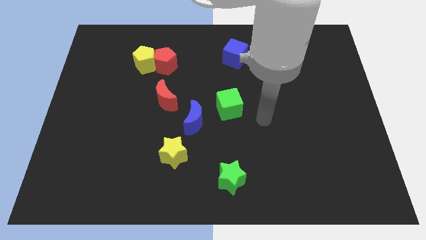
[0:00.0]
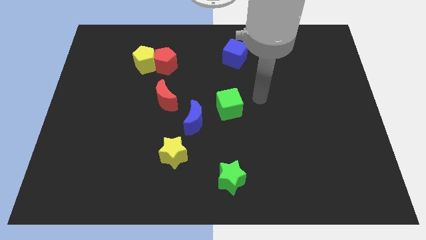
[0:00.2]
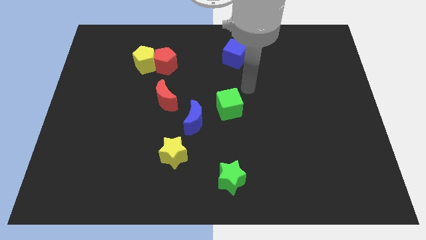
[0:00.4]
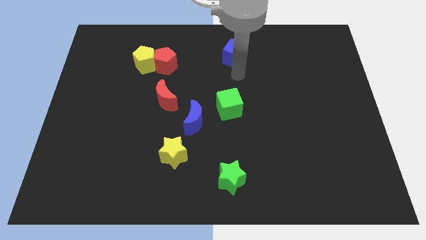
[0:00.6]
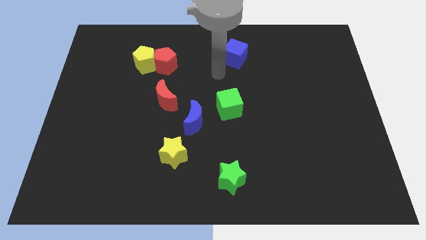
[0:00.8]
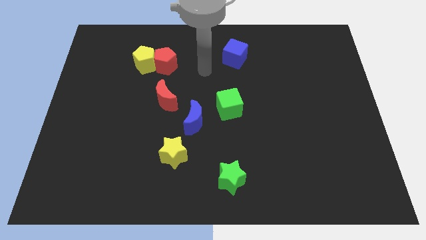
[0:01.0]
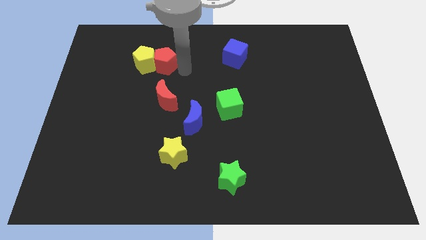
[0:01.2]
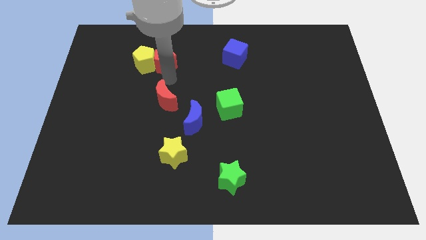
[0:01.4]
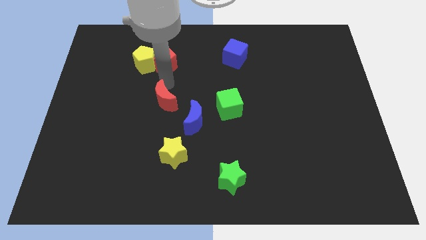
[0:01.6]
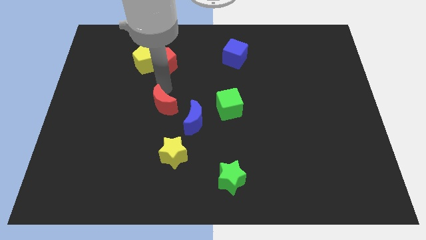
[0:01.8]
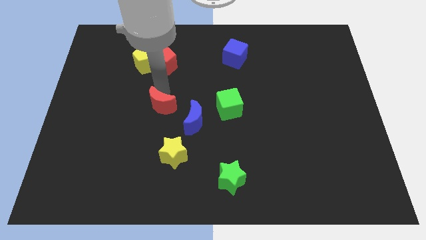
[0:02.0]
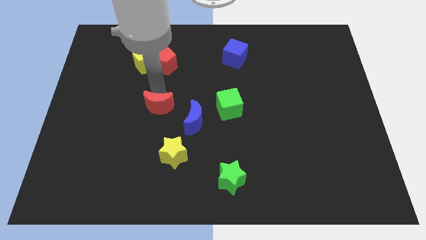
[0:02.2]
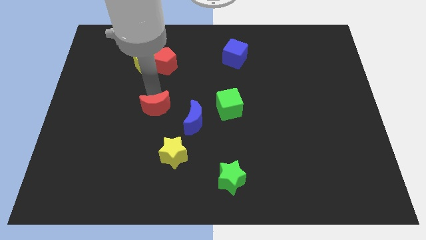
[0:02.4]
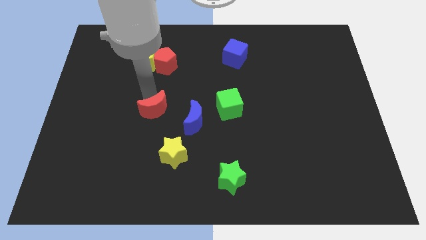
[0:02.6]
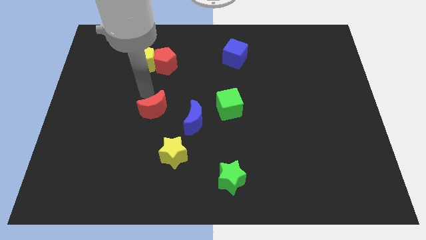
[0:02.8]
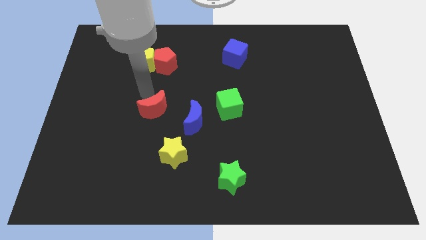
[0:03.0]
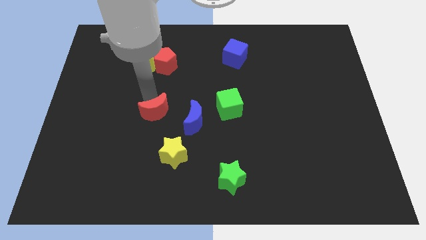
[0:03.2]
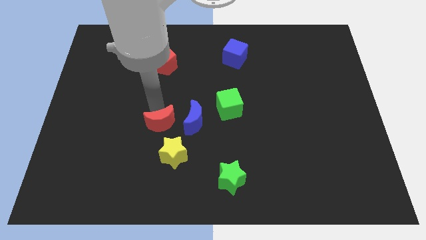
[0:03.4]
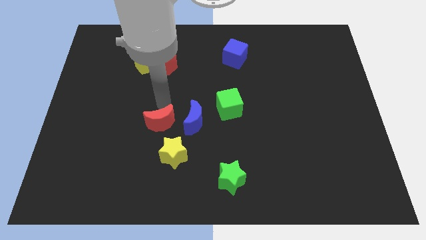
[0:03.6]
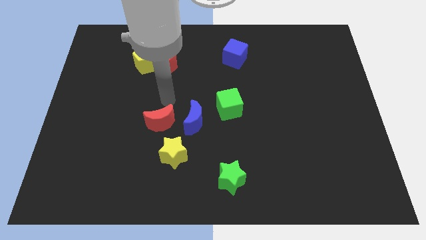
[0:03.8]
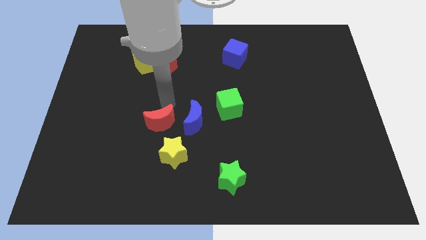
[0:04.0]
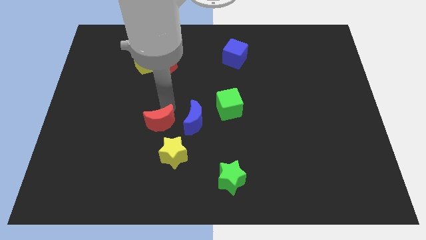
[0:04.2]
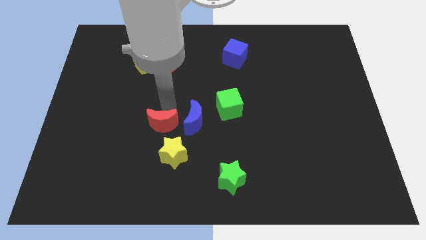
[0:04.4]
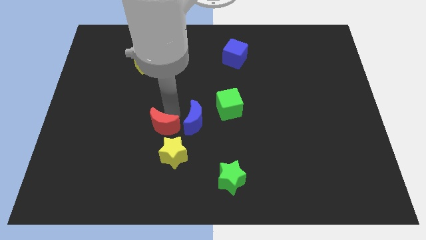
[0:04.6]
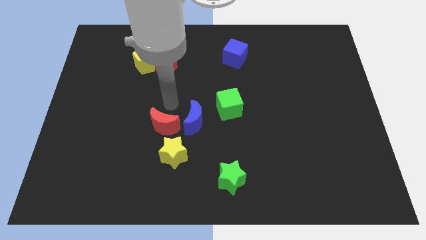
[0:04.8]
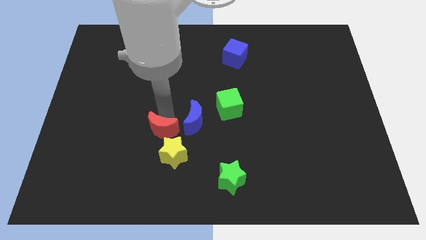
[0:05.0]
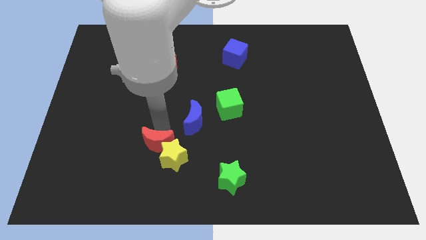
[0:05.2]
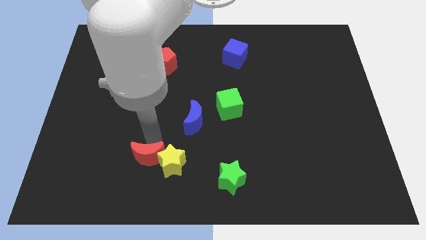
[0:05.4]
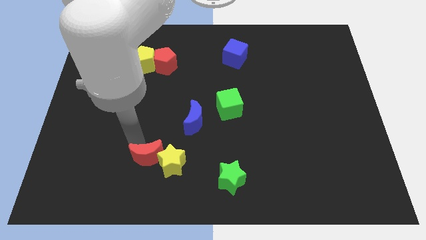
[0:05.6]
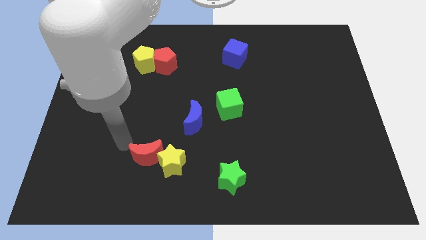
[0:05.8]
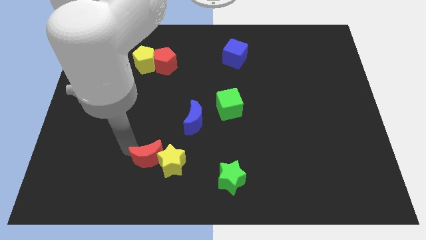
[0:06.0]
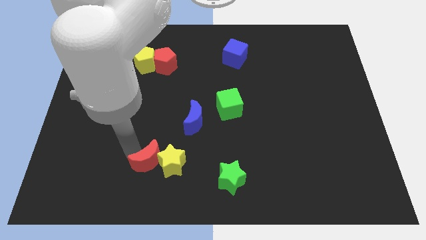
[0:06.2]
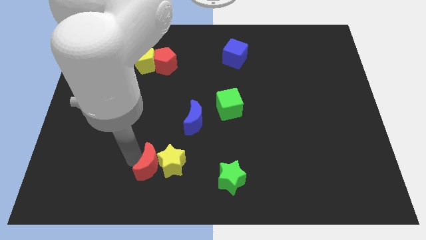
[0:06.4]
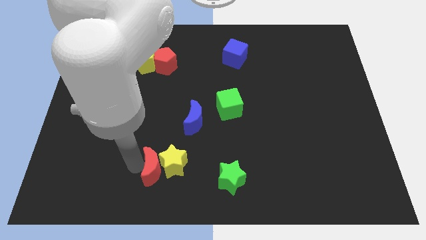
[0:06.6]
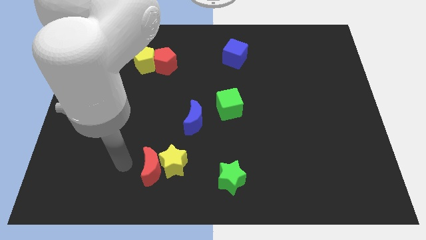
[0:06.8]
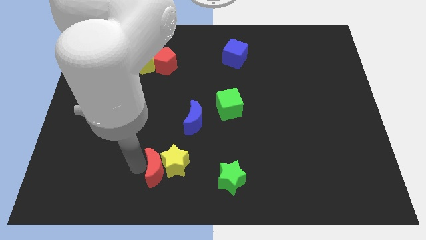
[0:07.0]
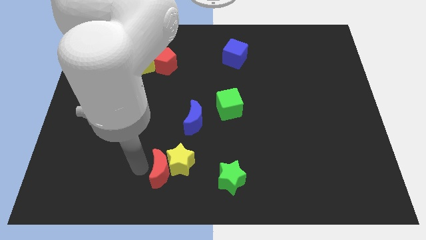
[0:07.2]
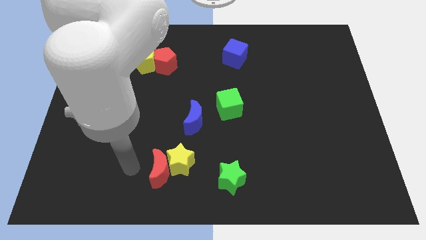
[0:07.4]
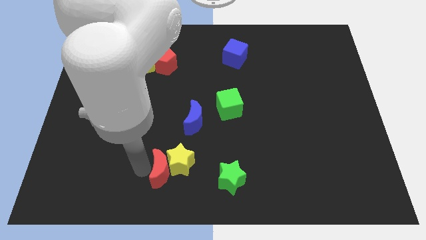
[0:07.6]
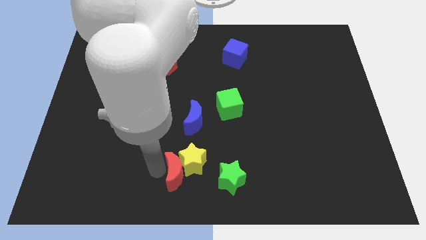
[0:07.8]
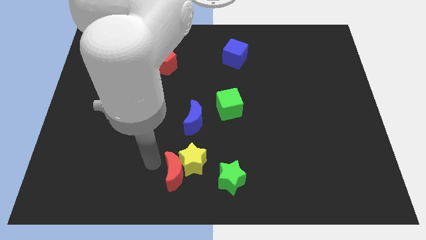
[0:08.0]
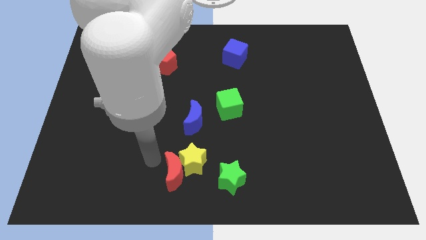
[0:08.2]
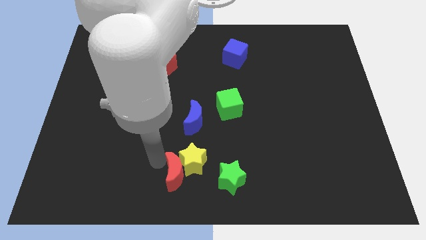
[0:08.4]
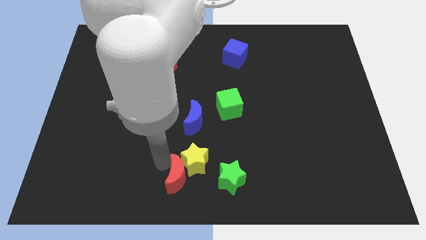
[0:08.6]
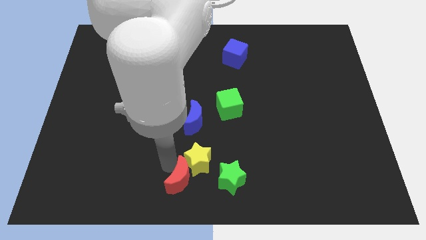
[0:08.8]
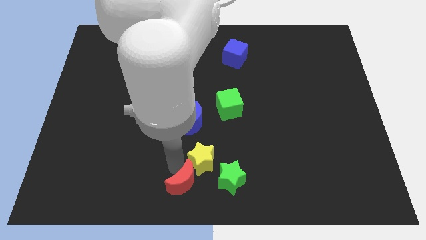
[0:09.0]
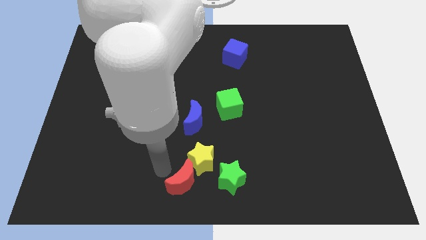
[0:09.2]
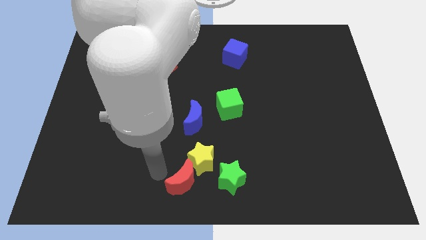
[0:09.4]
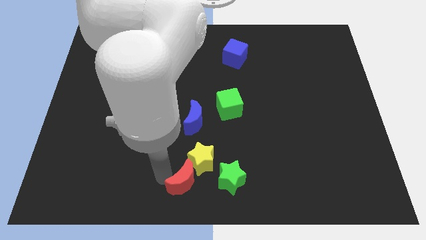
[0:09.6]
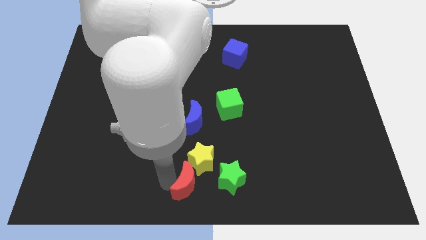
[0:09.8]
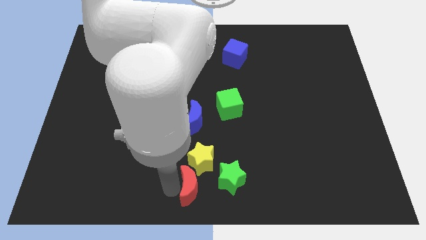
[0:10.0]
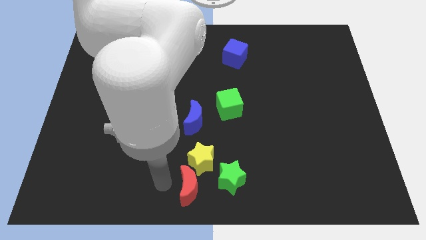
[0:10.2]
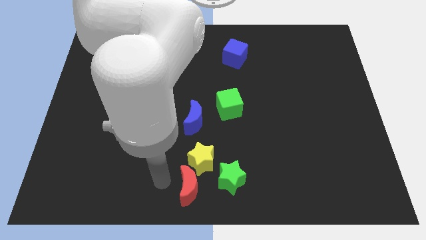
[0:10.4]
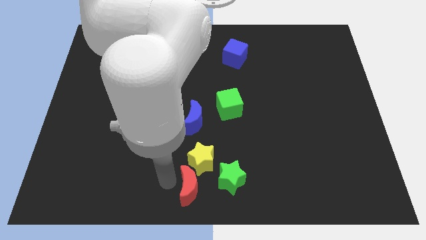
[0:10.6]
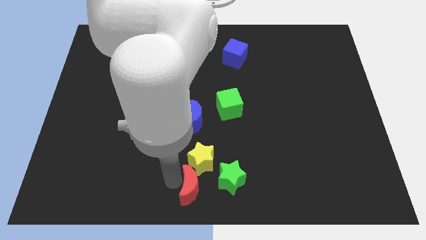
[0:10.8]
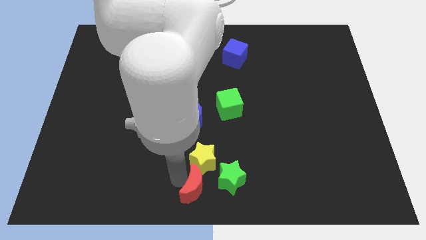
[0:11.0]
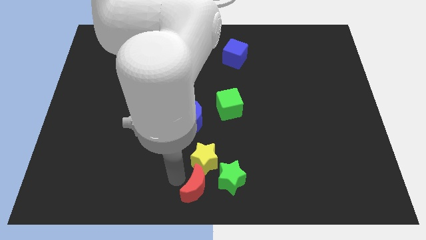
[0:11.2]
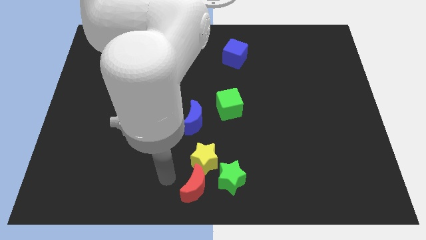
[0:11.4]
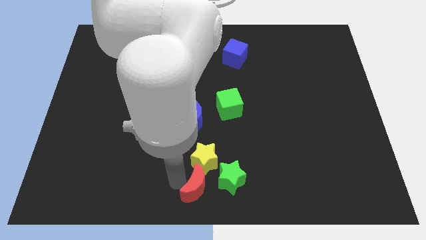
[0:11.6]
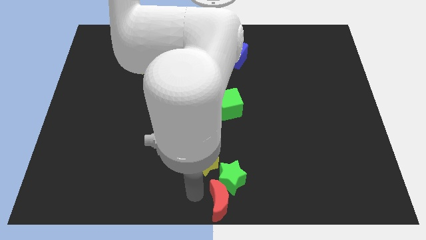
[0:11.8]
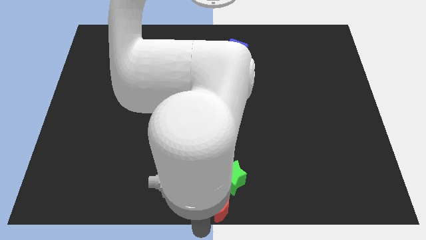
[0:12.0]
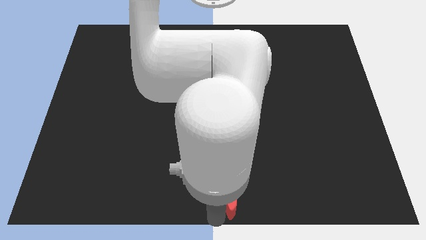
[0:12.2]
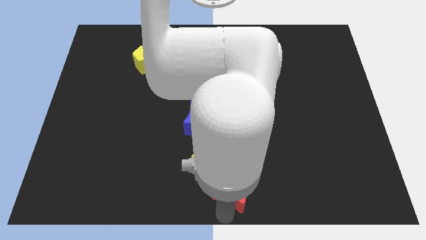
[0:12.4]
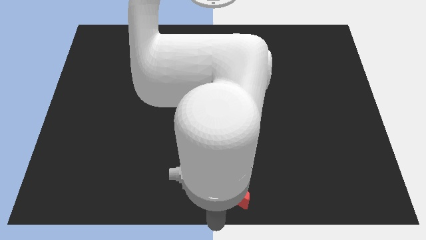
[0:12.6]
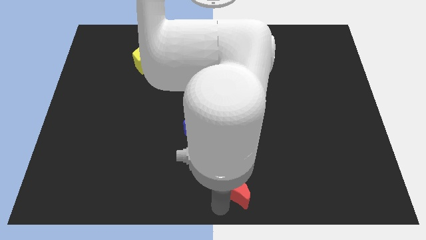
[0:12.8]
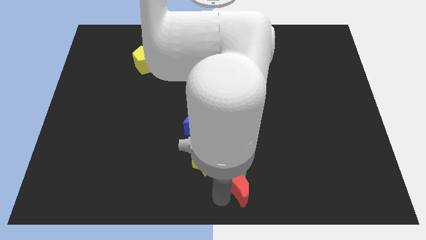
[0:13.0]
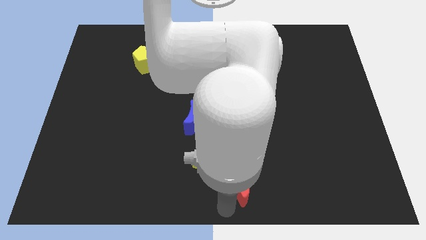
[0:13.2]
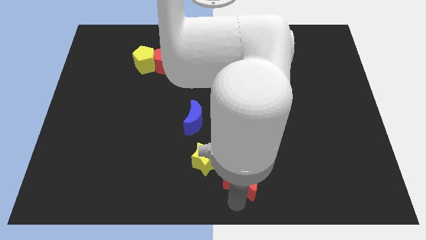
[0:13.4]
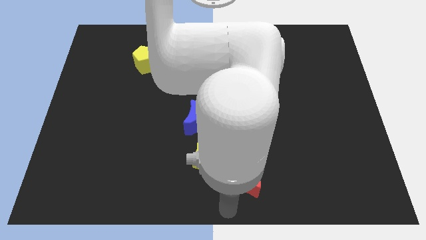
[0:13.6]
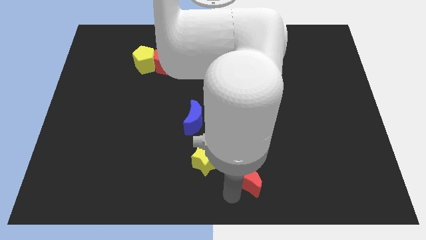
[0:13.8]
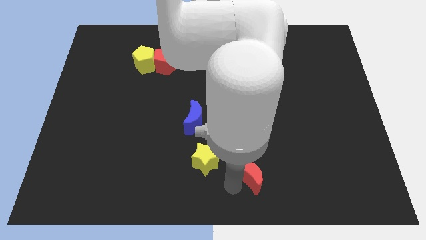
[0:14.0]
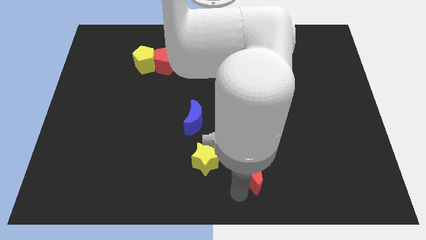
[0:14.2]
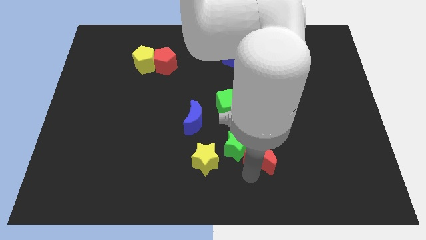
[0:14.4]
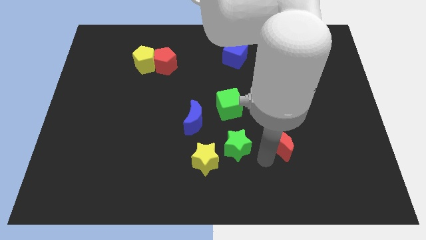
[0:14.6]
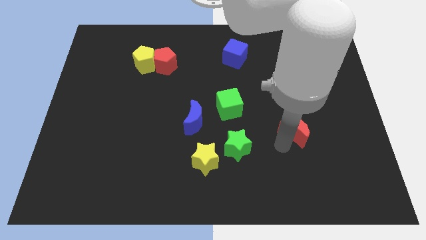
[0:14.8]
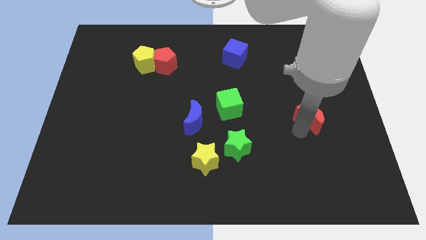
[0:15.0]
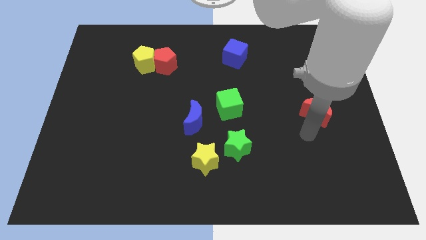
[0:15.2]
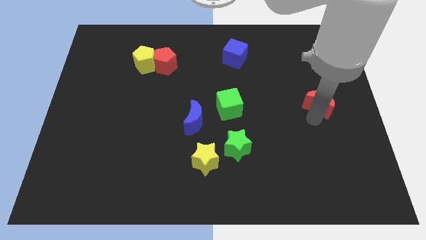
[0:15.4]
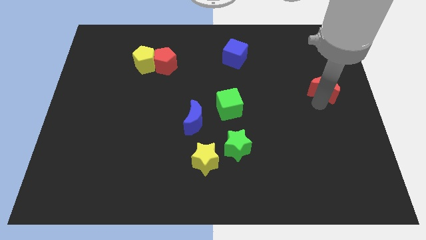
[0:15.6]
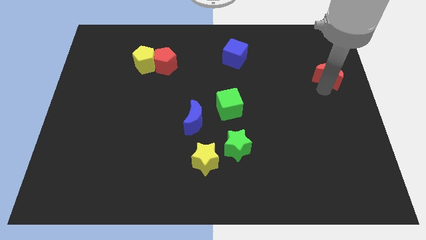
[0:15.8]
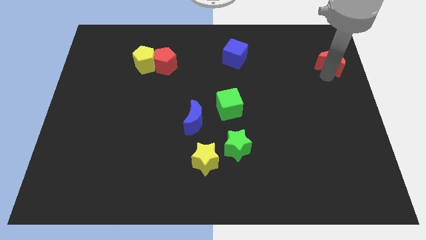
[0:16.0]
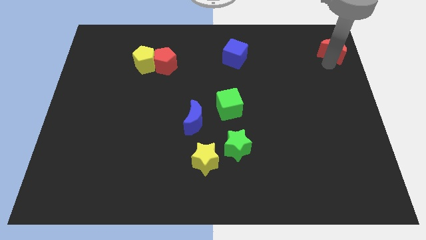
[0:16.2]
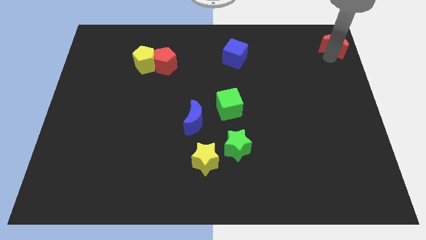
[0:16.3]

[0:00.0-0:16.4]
move the red moon to the top right
